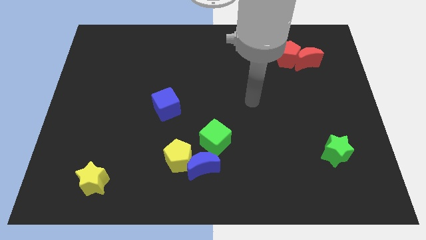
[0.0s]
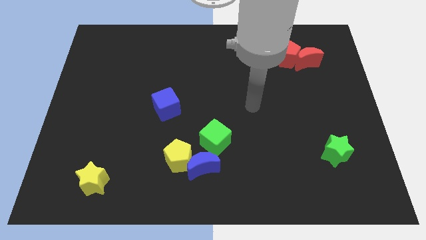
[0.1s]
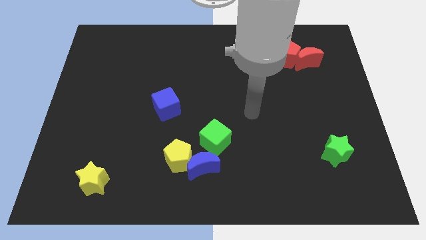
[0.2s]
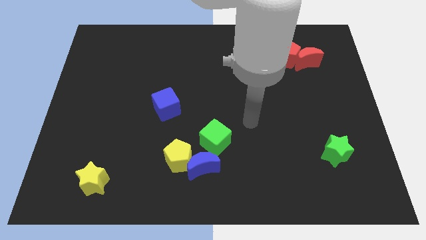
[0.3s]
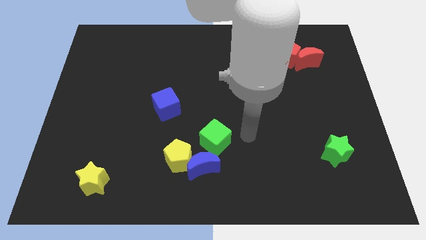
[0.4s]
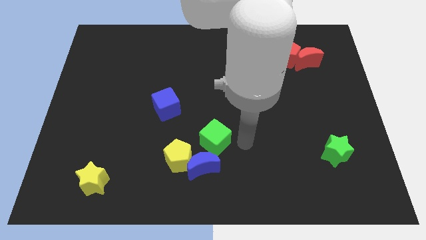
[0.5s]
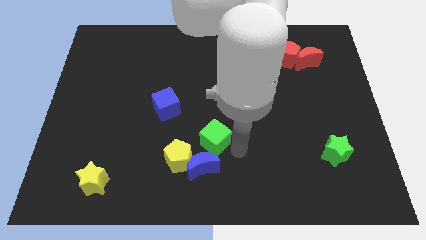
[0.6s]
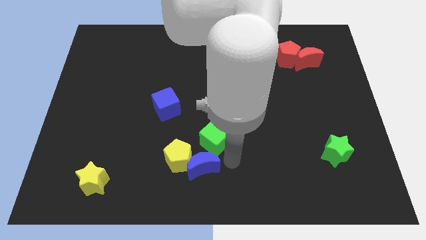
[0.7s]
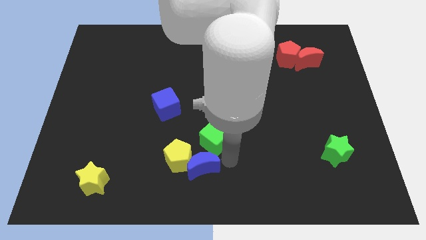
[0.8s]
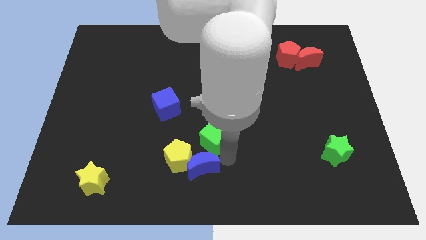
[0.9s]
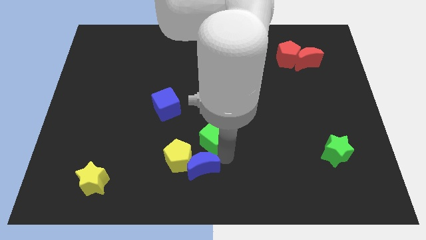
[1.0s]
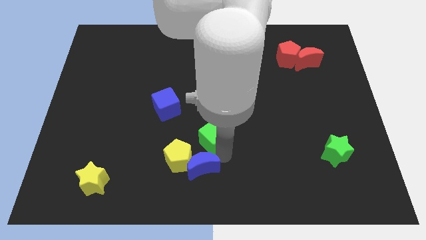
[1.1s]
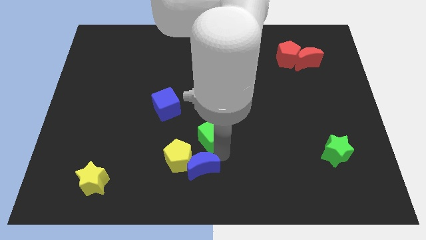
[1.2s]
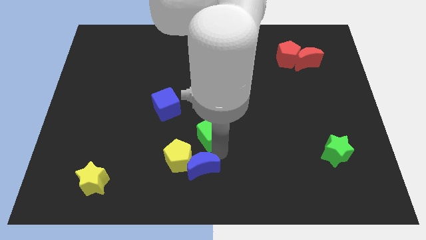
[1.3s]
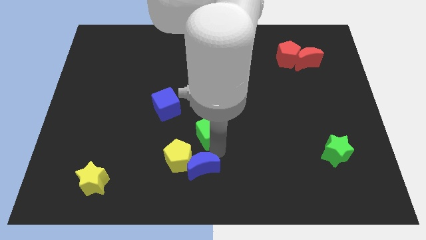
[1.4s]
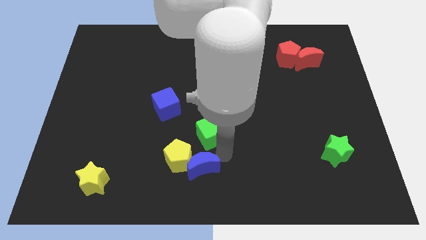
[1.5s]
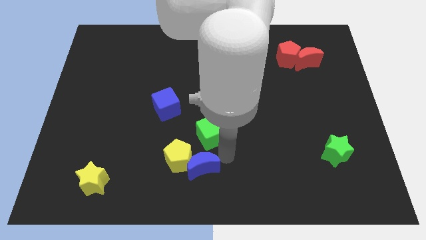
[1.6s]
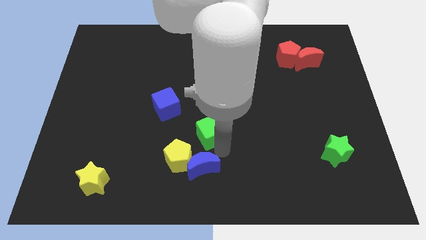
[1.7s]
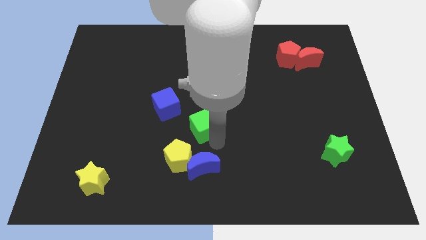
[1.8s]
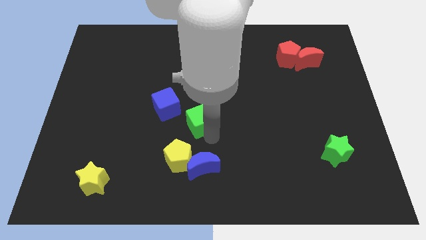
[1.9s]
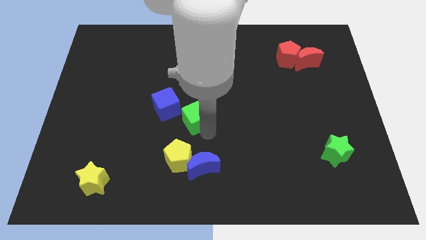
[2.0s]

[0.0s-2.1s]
push the green cube a little bit diagonally up and to the left

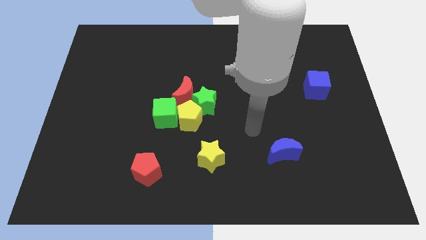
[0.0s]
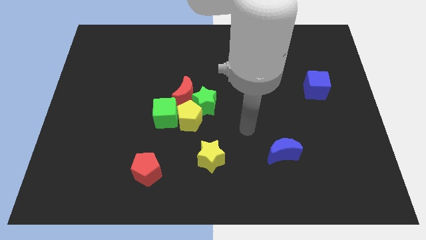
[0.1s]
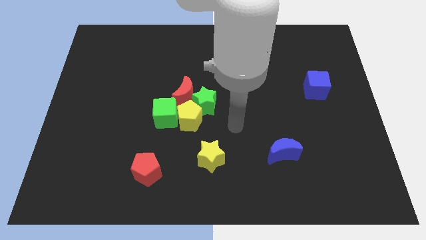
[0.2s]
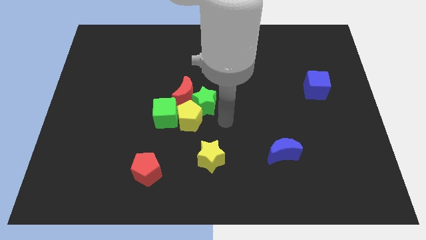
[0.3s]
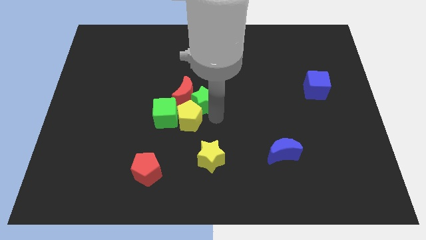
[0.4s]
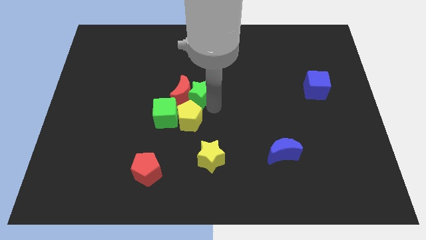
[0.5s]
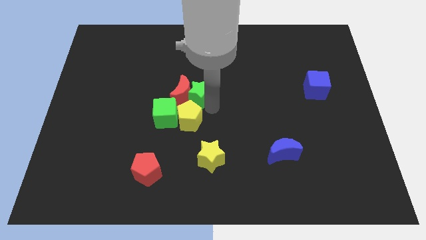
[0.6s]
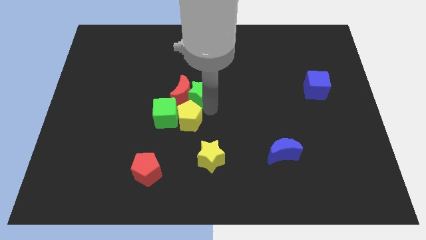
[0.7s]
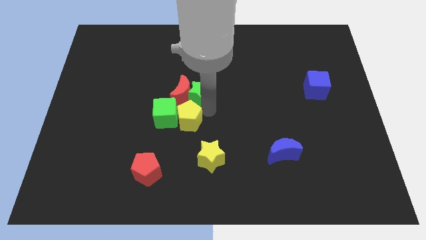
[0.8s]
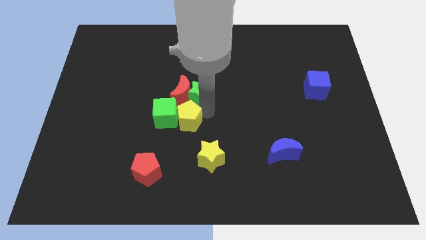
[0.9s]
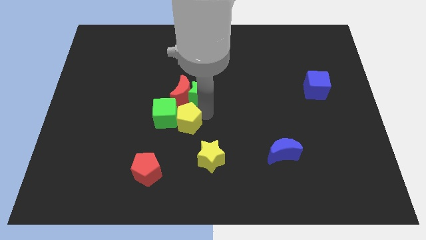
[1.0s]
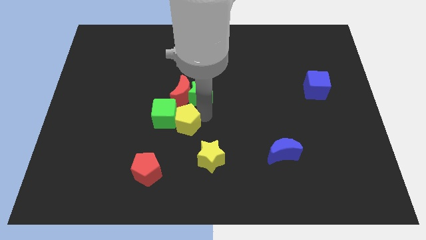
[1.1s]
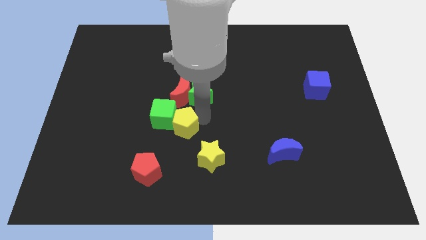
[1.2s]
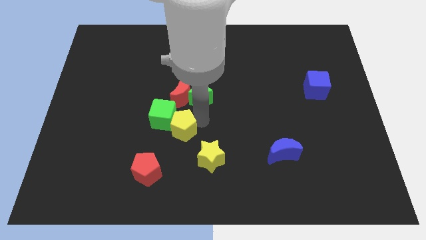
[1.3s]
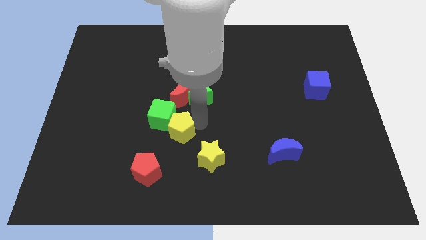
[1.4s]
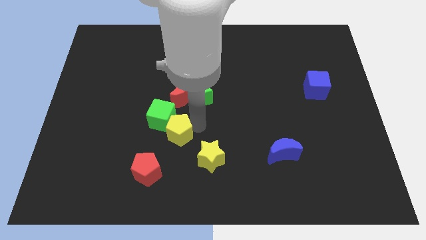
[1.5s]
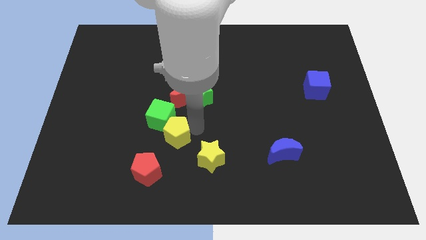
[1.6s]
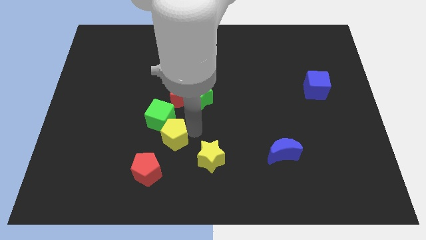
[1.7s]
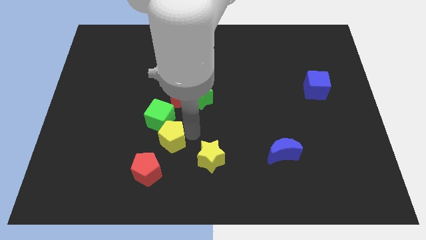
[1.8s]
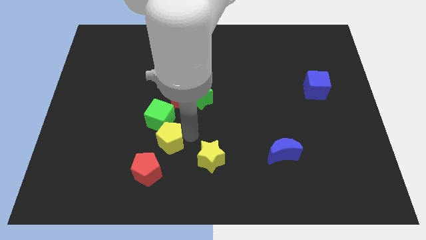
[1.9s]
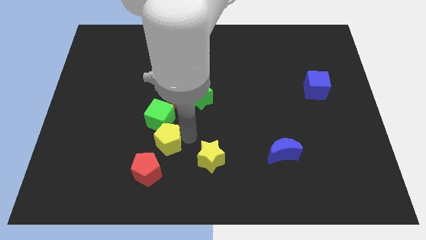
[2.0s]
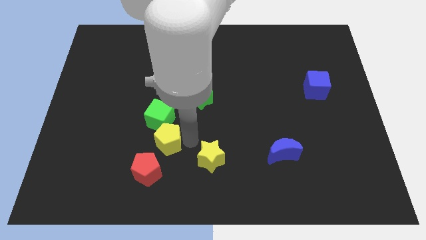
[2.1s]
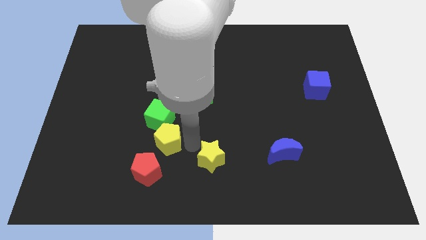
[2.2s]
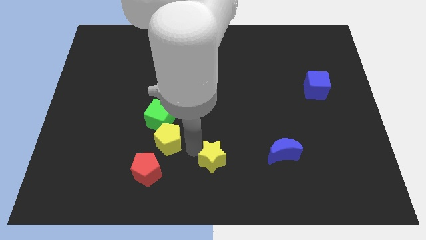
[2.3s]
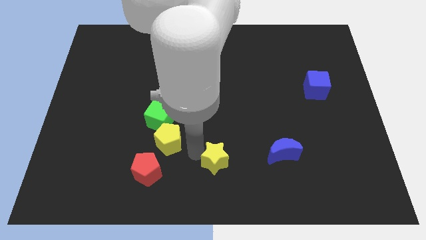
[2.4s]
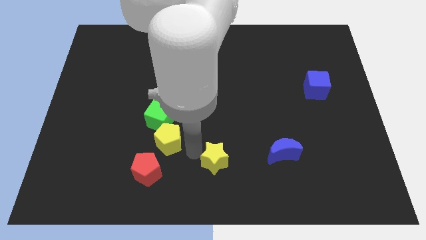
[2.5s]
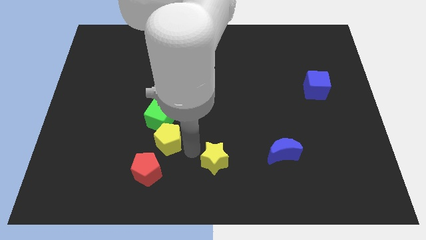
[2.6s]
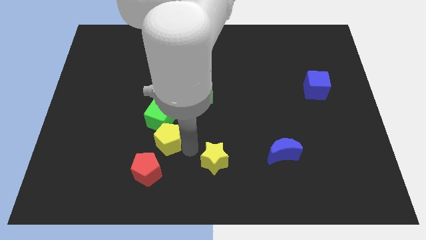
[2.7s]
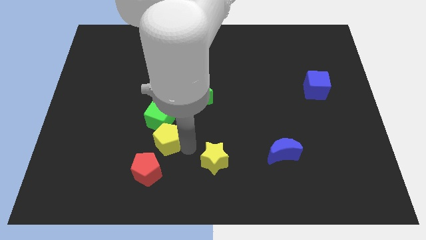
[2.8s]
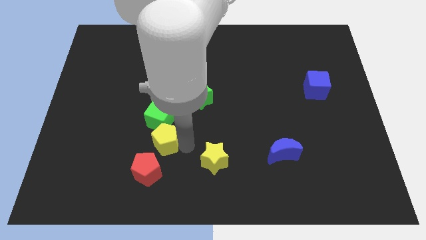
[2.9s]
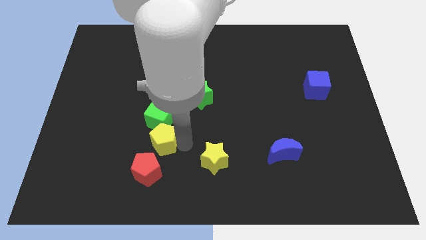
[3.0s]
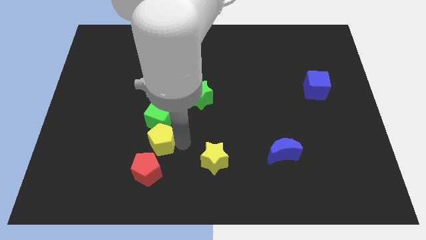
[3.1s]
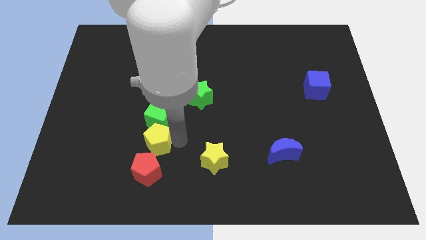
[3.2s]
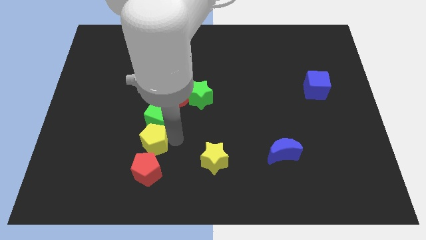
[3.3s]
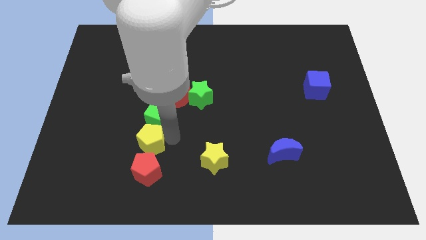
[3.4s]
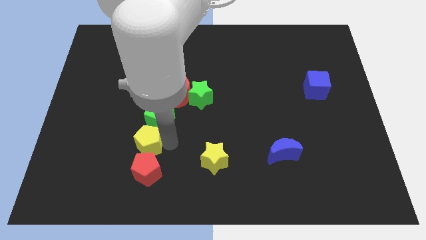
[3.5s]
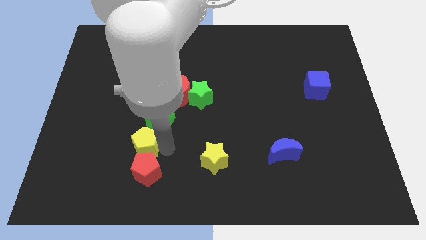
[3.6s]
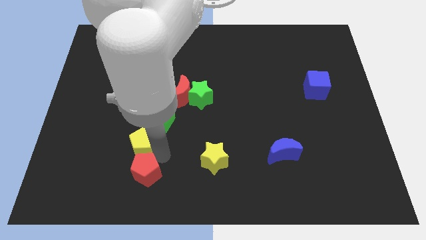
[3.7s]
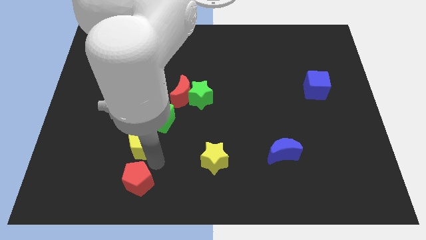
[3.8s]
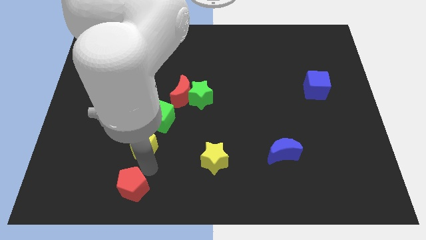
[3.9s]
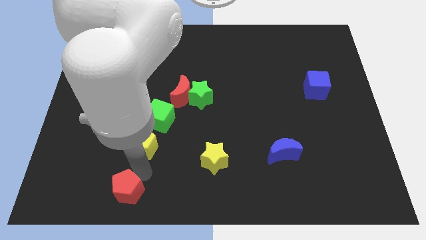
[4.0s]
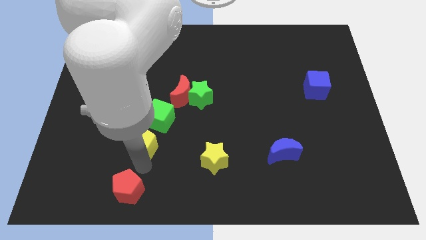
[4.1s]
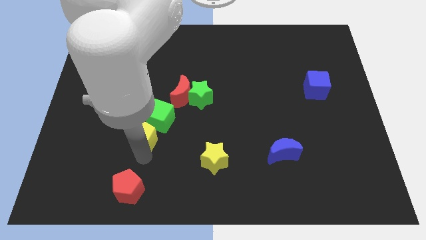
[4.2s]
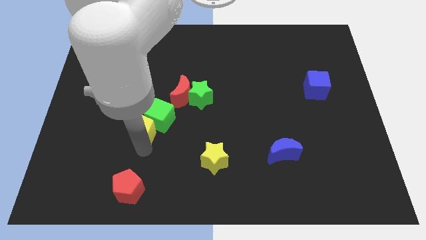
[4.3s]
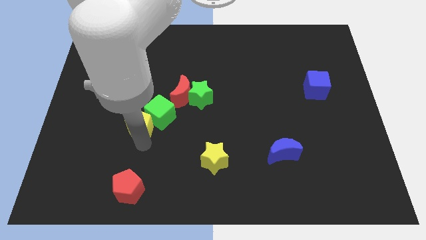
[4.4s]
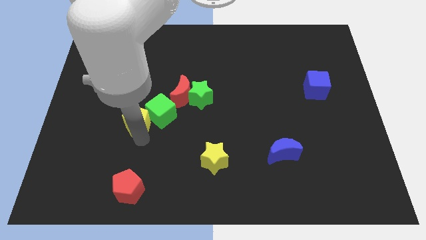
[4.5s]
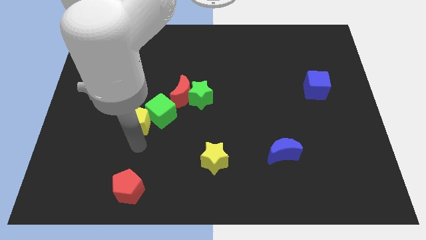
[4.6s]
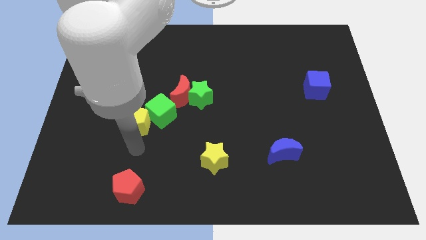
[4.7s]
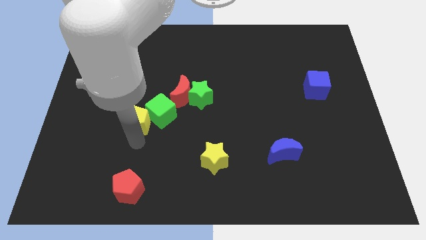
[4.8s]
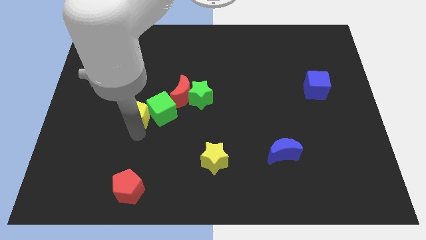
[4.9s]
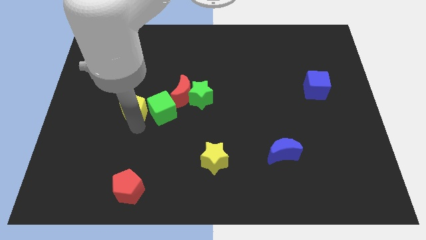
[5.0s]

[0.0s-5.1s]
move the yellow pentagon somewhat diagonally up and to the left

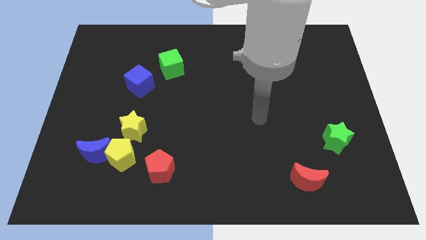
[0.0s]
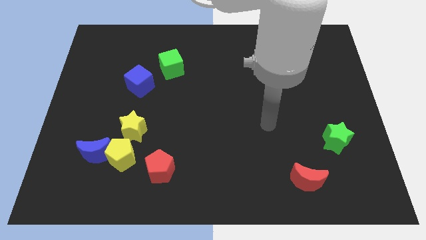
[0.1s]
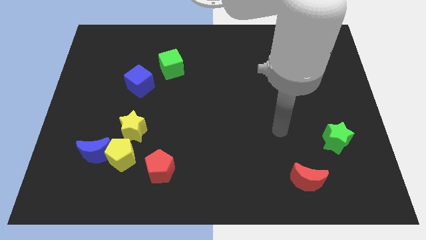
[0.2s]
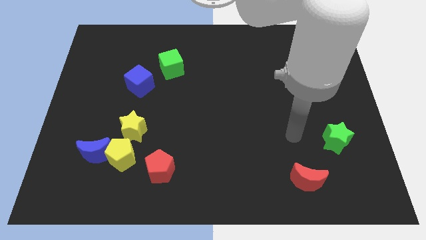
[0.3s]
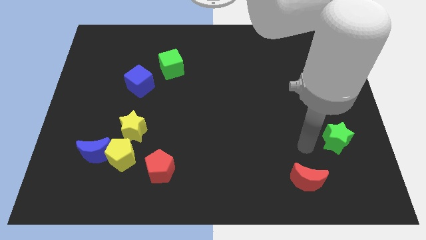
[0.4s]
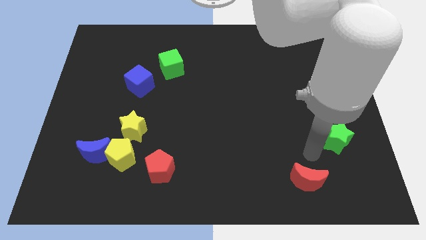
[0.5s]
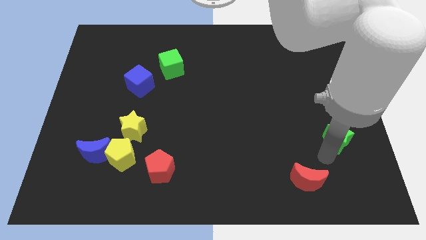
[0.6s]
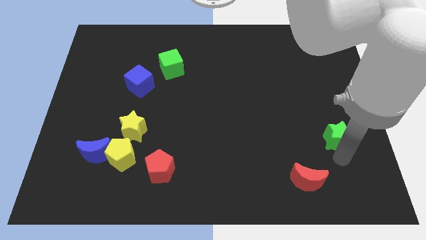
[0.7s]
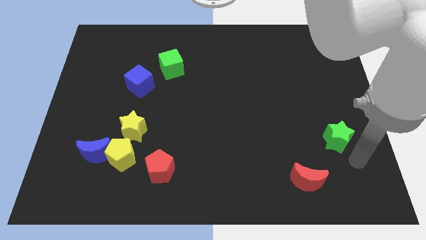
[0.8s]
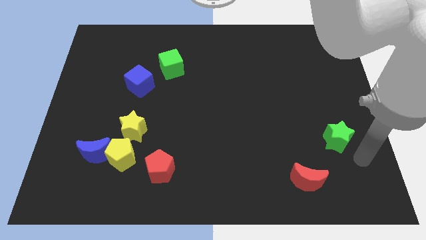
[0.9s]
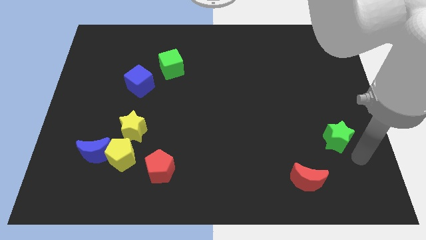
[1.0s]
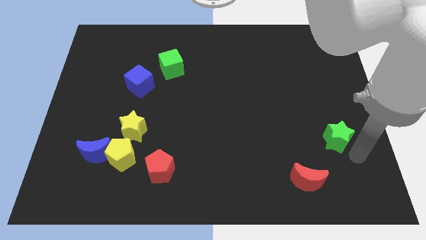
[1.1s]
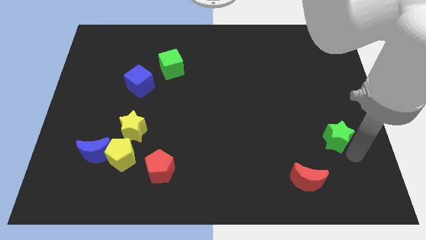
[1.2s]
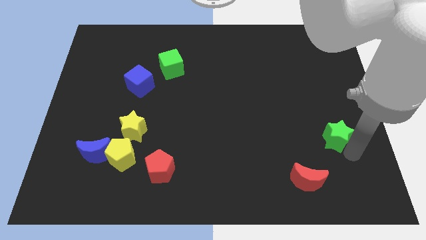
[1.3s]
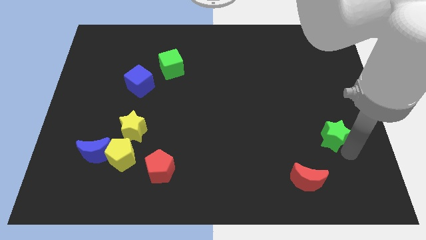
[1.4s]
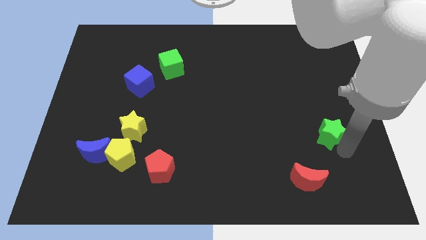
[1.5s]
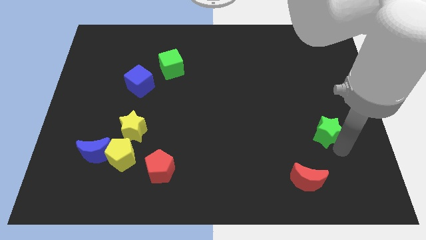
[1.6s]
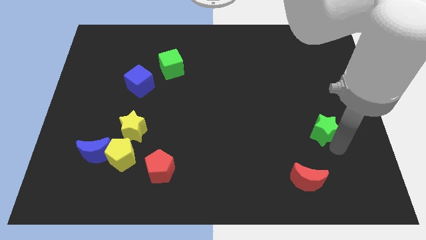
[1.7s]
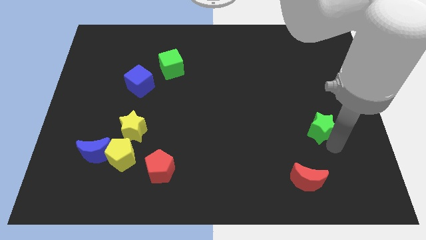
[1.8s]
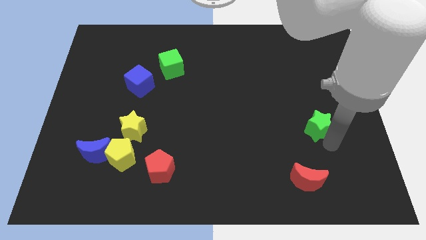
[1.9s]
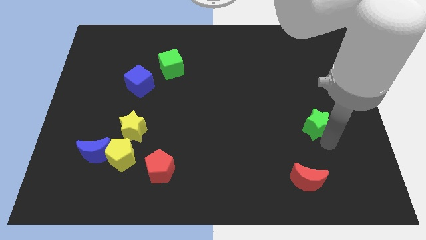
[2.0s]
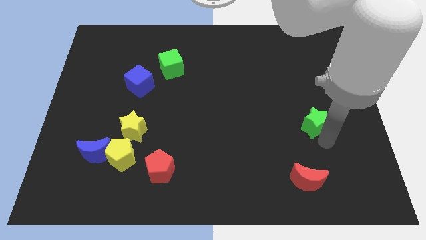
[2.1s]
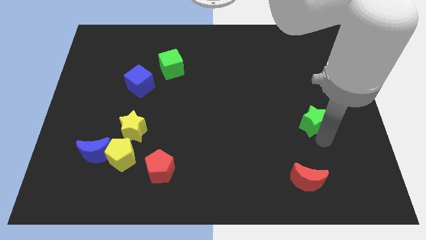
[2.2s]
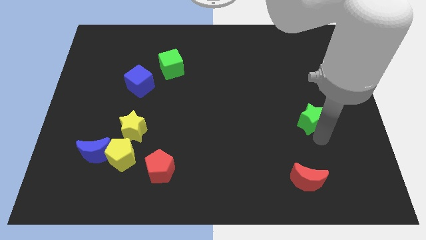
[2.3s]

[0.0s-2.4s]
move the green star upwards and then left slightly
